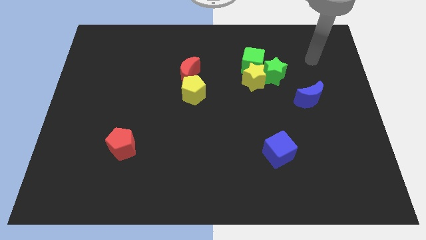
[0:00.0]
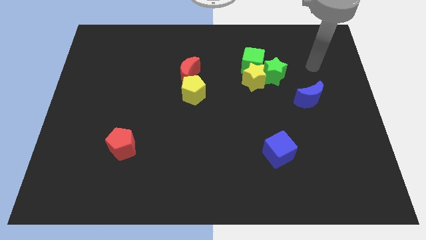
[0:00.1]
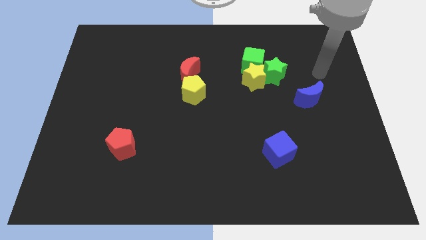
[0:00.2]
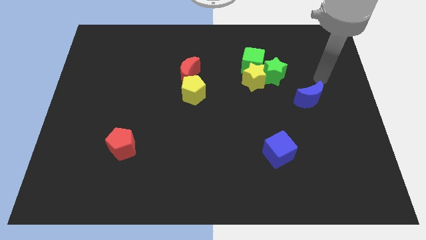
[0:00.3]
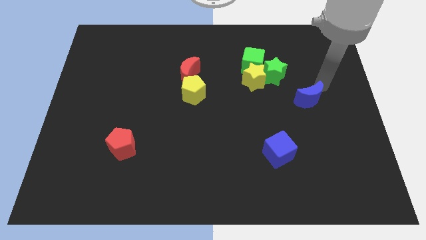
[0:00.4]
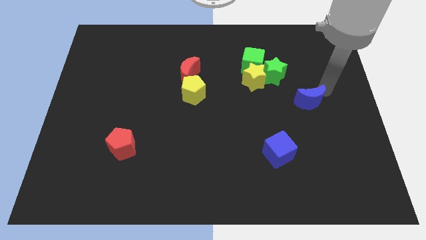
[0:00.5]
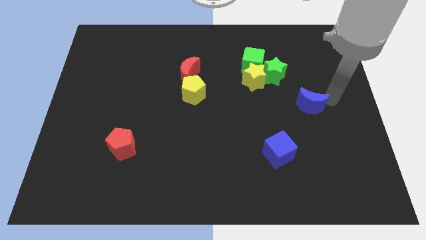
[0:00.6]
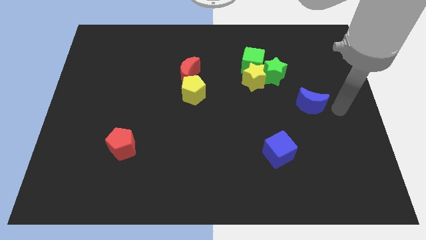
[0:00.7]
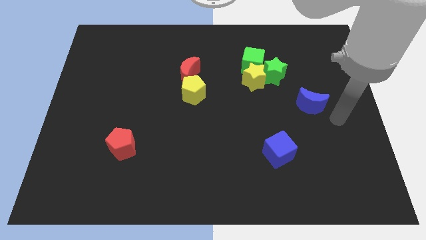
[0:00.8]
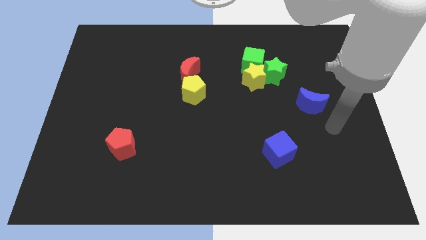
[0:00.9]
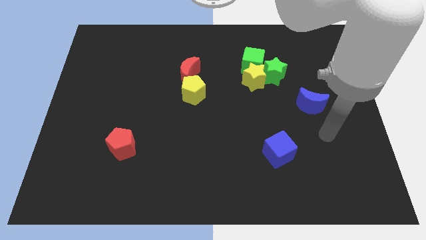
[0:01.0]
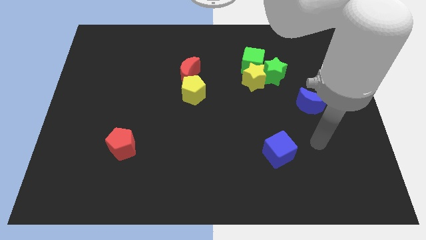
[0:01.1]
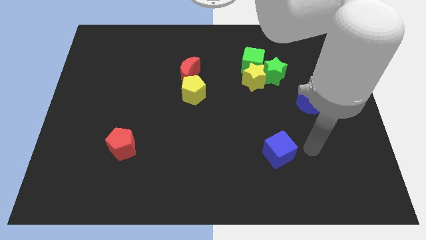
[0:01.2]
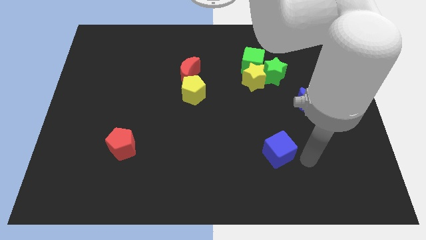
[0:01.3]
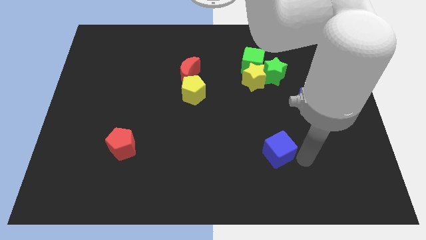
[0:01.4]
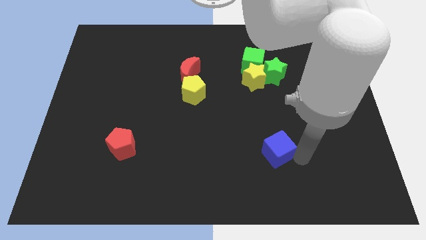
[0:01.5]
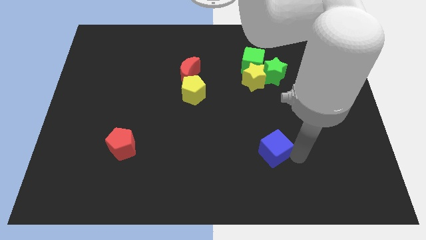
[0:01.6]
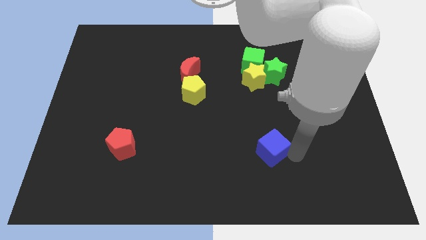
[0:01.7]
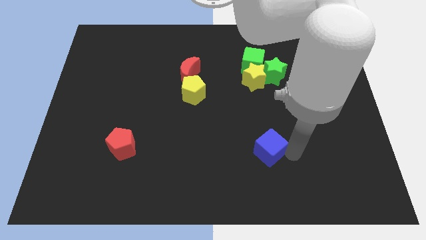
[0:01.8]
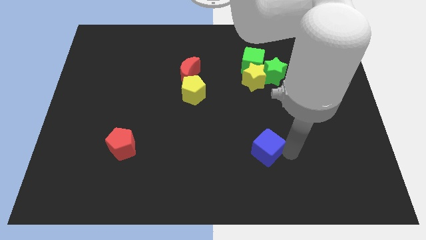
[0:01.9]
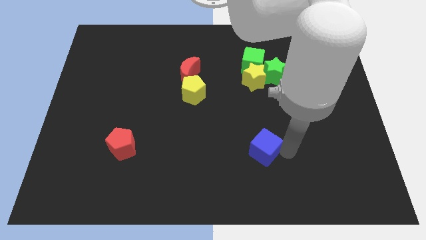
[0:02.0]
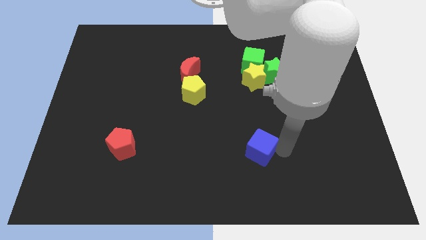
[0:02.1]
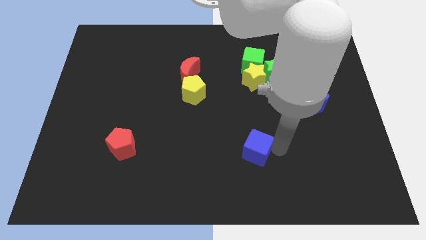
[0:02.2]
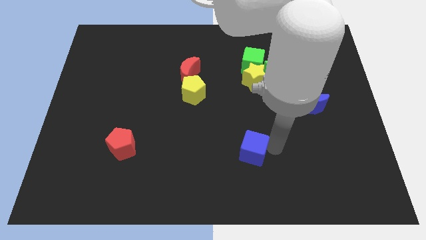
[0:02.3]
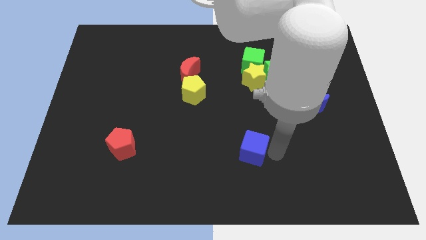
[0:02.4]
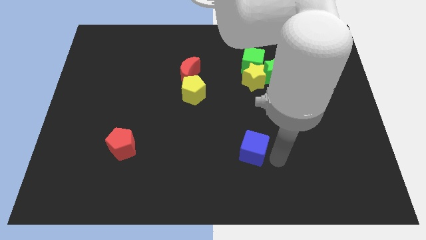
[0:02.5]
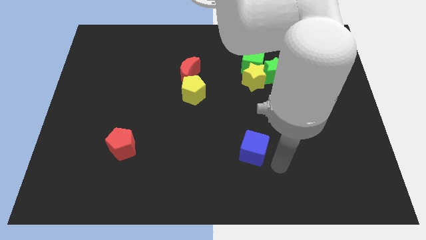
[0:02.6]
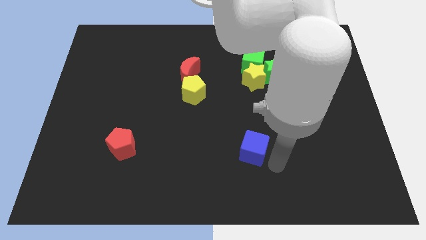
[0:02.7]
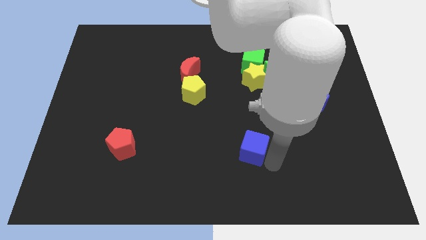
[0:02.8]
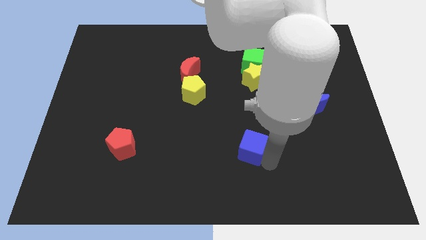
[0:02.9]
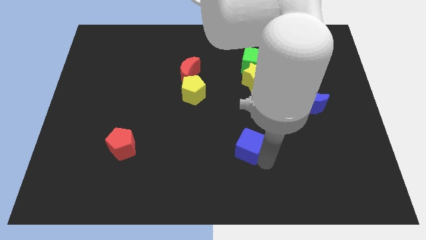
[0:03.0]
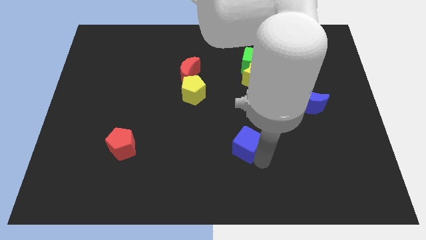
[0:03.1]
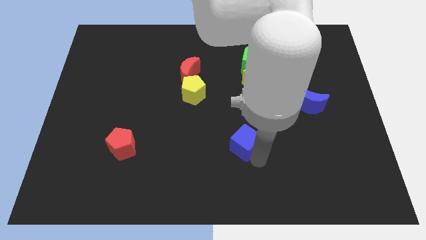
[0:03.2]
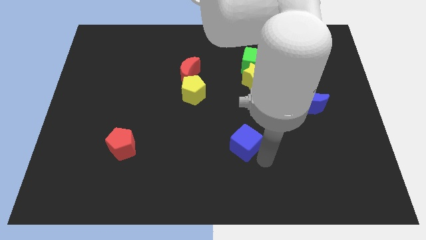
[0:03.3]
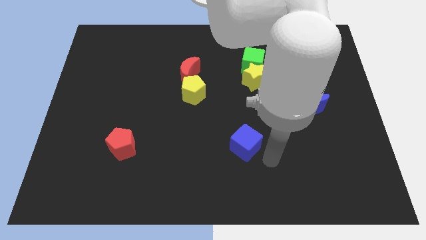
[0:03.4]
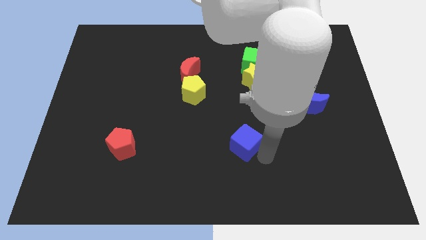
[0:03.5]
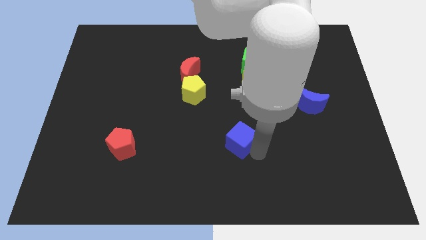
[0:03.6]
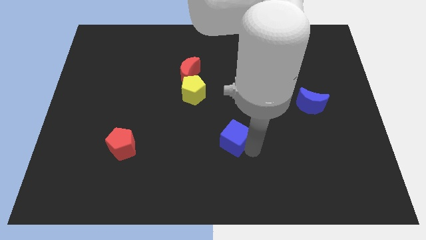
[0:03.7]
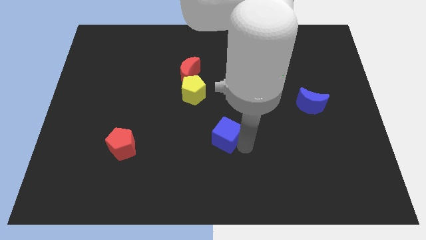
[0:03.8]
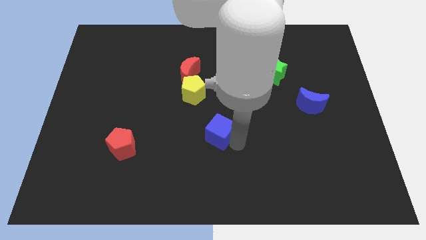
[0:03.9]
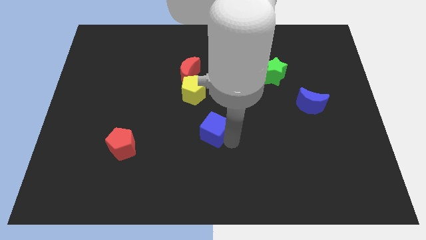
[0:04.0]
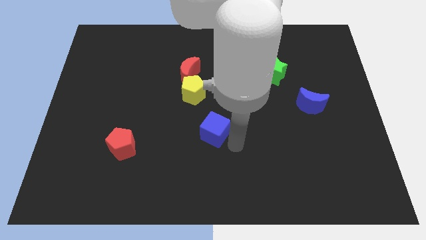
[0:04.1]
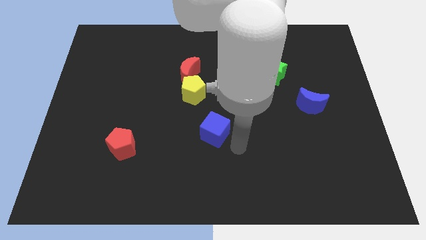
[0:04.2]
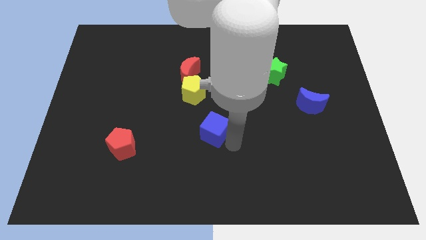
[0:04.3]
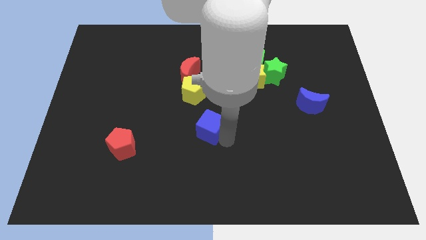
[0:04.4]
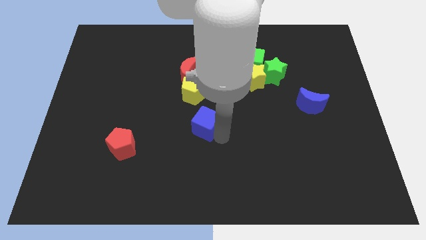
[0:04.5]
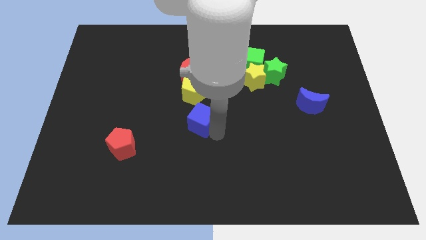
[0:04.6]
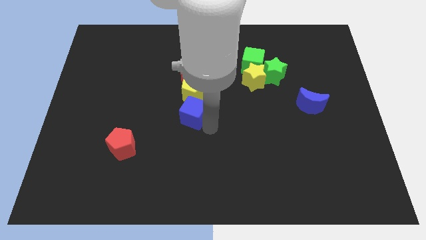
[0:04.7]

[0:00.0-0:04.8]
move the blue cube to the bottom left of the yellow pentagon

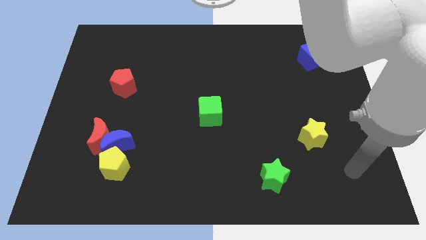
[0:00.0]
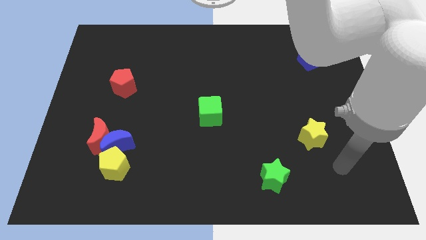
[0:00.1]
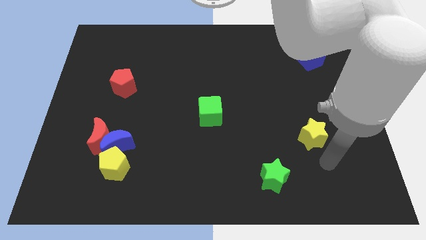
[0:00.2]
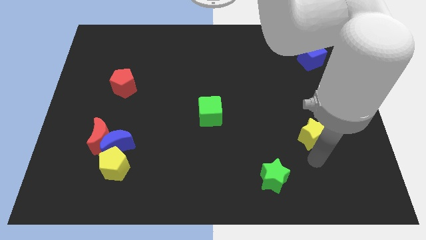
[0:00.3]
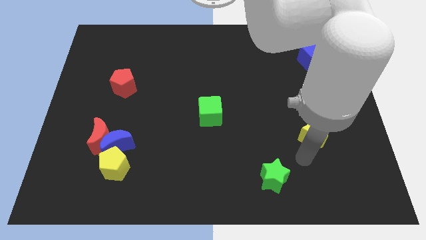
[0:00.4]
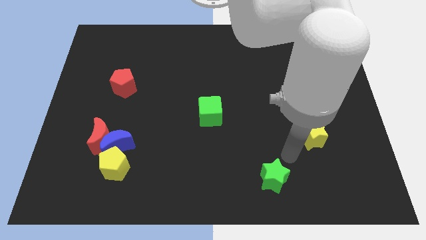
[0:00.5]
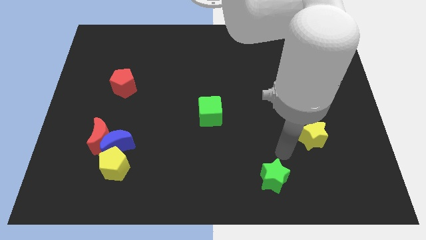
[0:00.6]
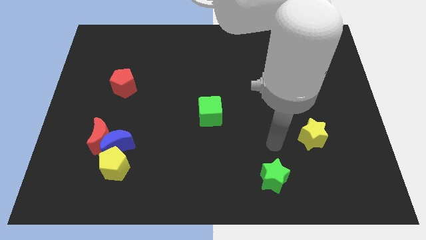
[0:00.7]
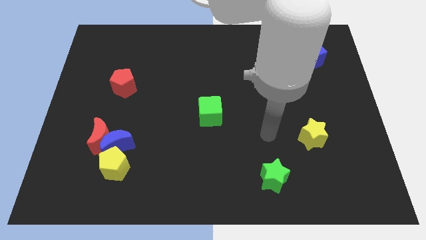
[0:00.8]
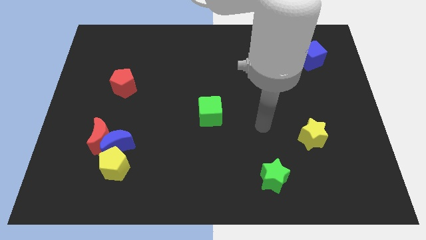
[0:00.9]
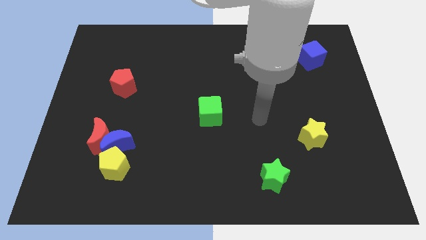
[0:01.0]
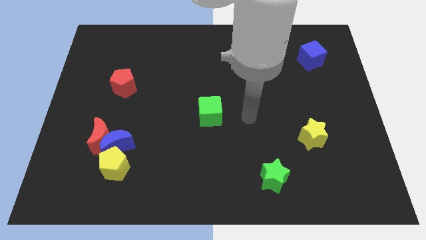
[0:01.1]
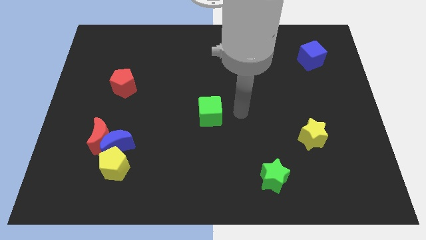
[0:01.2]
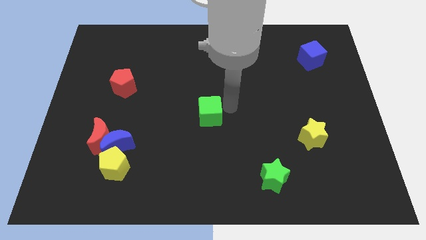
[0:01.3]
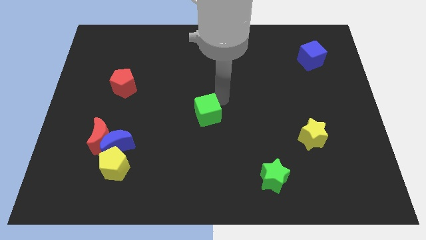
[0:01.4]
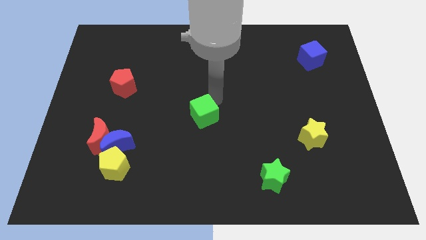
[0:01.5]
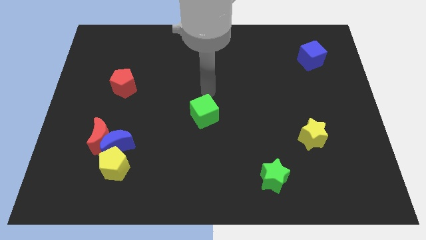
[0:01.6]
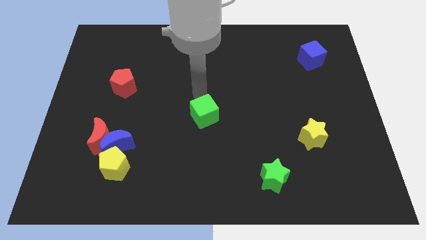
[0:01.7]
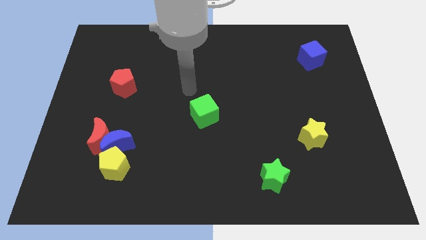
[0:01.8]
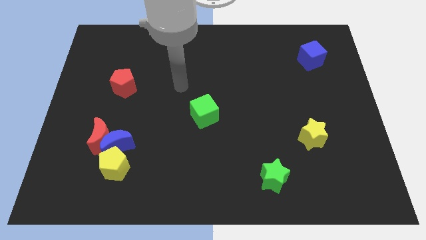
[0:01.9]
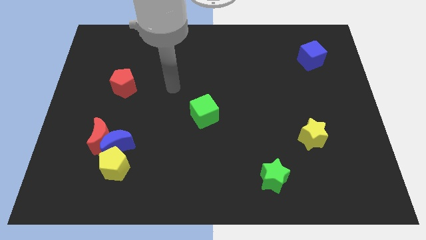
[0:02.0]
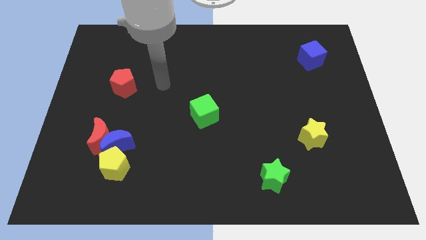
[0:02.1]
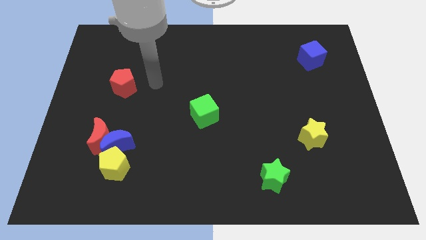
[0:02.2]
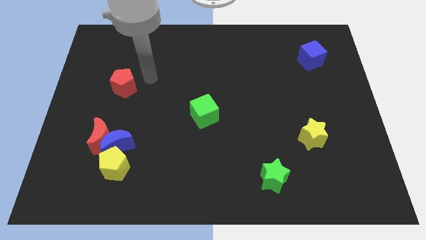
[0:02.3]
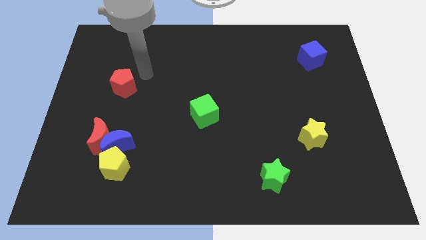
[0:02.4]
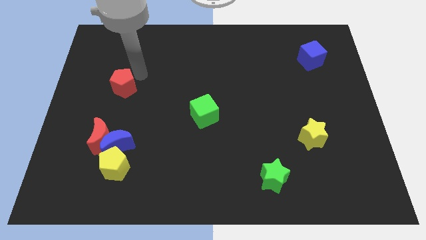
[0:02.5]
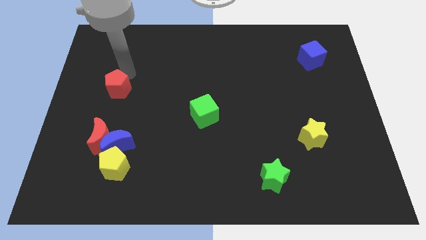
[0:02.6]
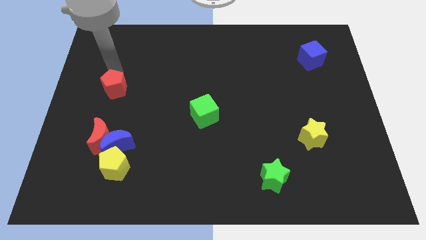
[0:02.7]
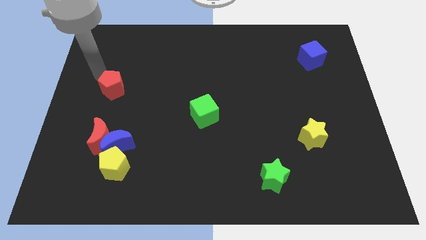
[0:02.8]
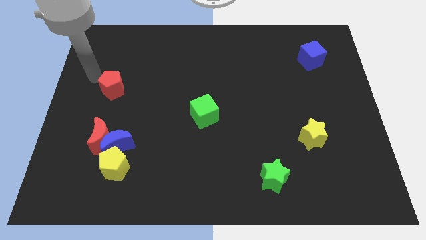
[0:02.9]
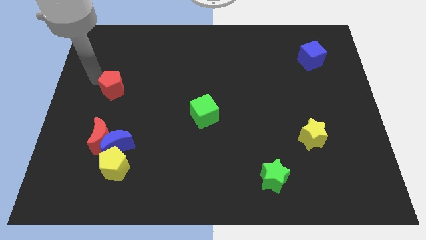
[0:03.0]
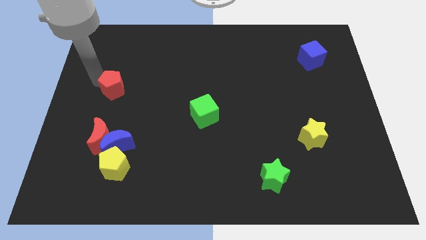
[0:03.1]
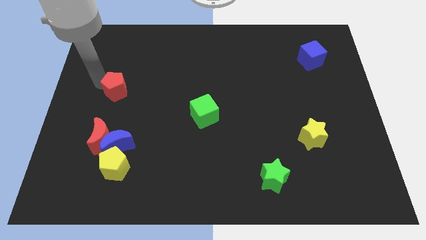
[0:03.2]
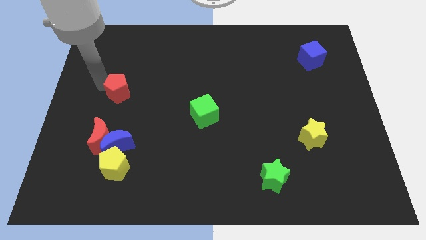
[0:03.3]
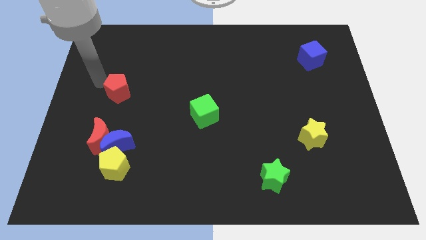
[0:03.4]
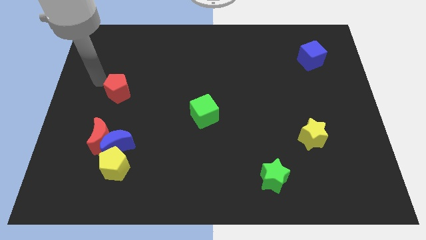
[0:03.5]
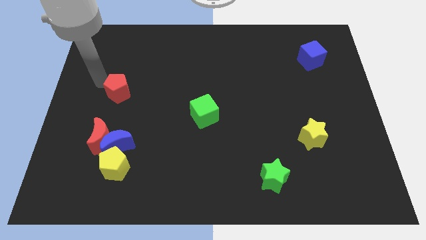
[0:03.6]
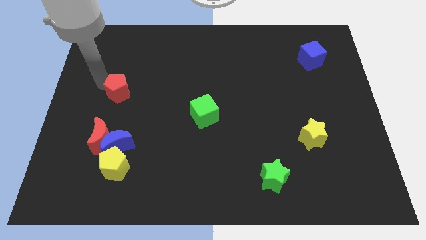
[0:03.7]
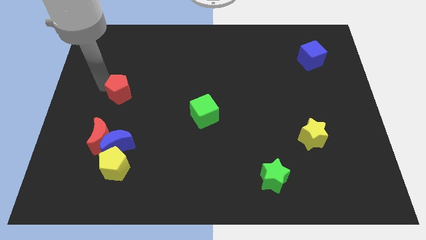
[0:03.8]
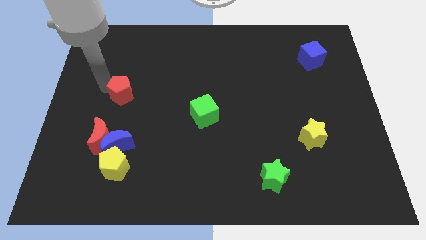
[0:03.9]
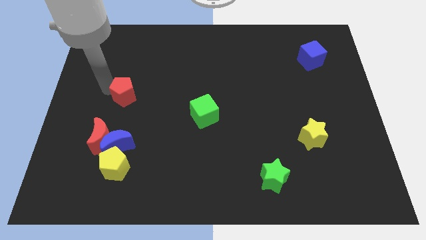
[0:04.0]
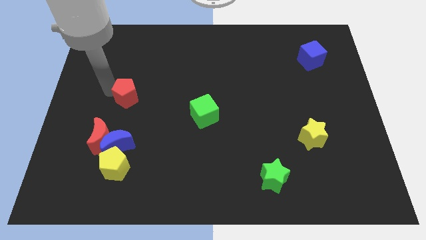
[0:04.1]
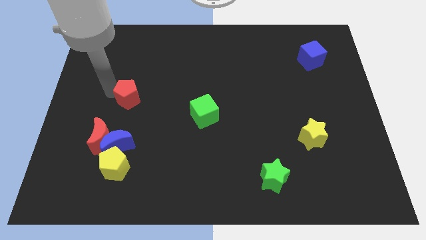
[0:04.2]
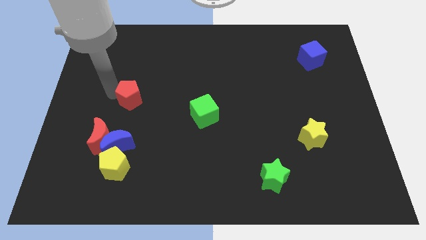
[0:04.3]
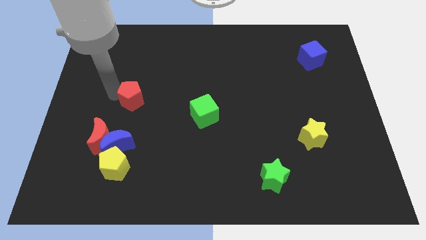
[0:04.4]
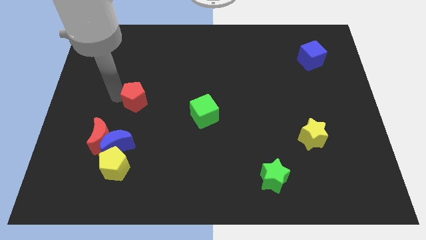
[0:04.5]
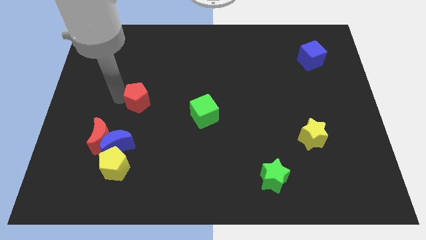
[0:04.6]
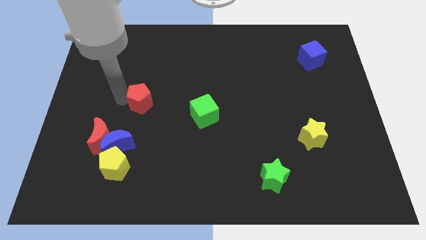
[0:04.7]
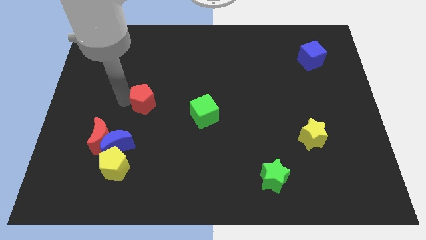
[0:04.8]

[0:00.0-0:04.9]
move the red pentagon just left of the green cube
